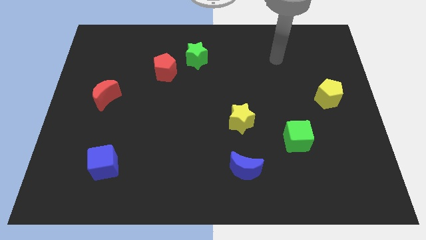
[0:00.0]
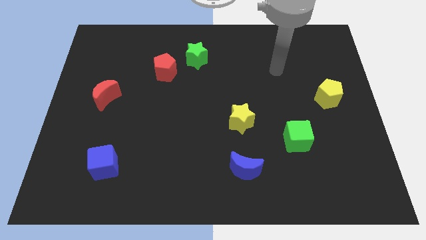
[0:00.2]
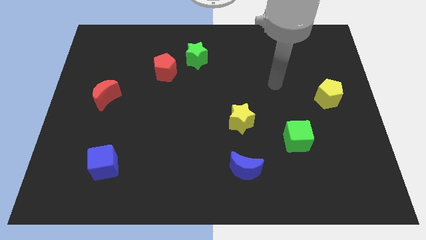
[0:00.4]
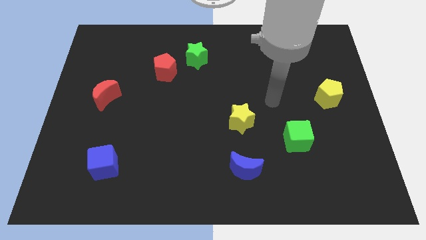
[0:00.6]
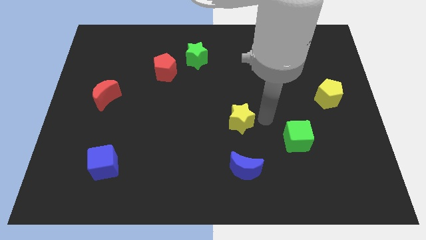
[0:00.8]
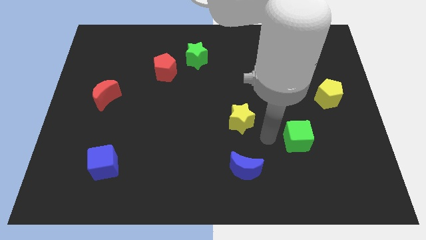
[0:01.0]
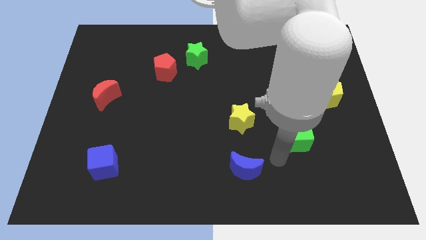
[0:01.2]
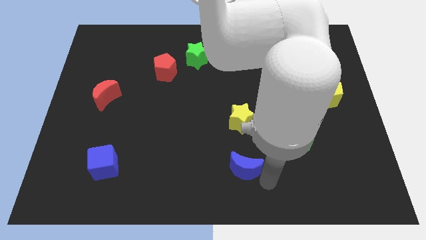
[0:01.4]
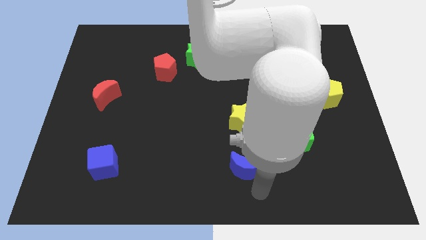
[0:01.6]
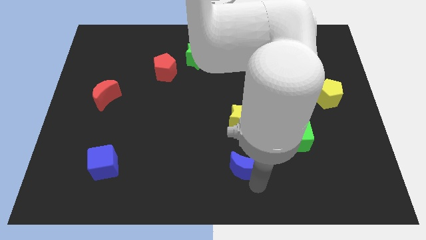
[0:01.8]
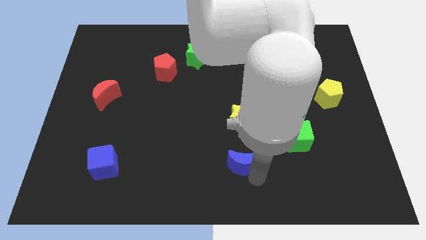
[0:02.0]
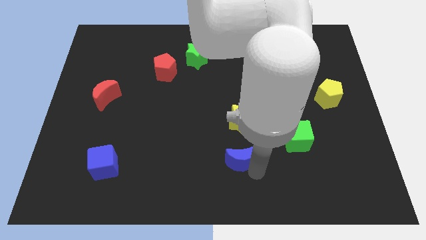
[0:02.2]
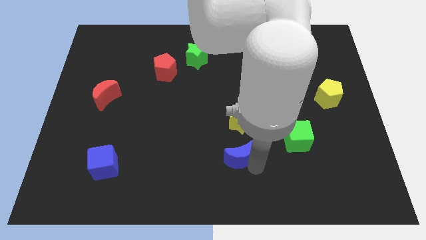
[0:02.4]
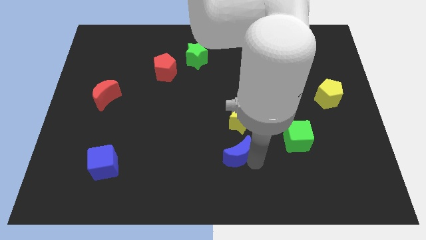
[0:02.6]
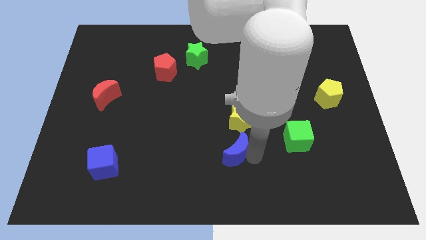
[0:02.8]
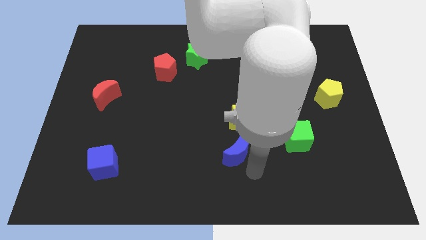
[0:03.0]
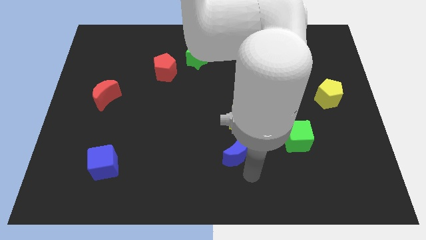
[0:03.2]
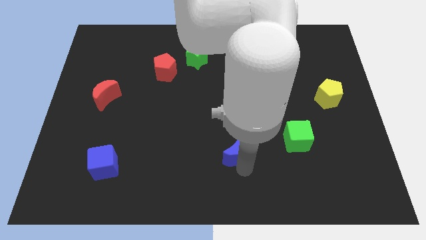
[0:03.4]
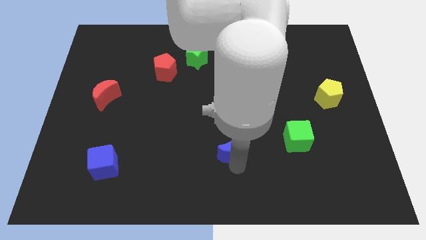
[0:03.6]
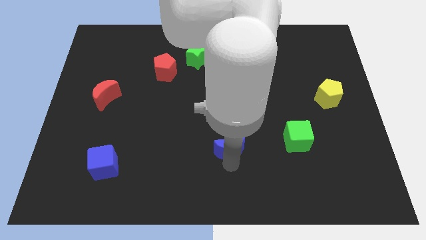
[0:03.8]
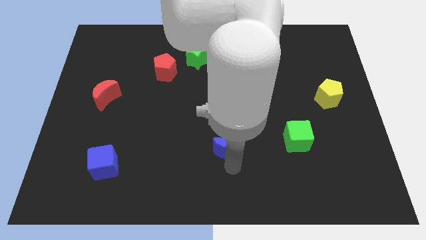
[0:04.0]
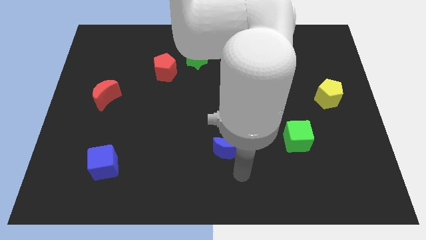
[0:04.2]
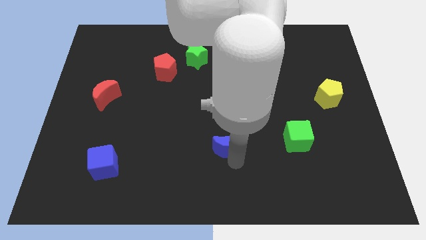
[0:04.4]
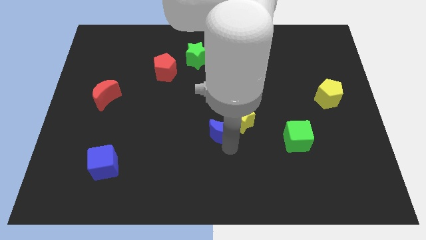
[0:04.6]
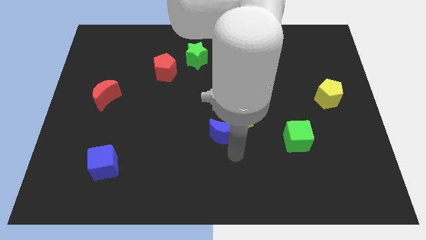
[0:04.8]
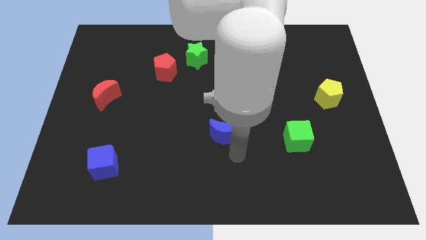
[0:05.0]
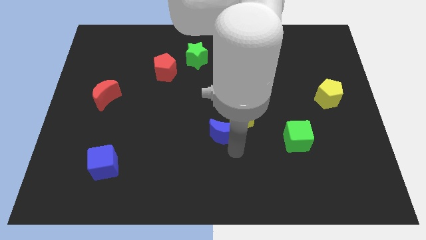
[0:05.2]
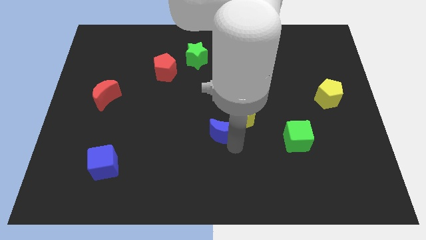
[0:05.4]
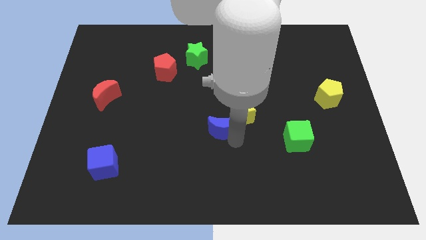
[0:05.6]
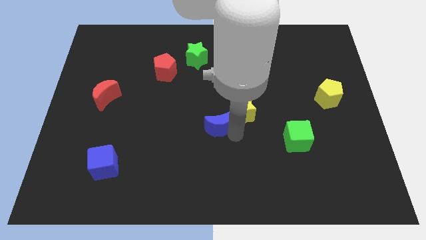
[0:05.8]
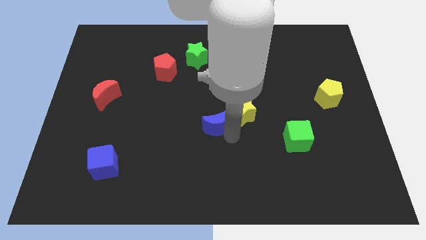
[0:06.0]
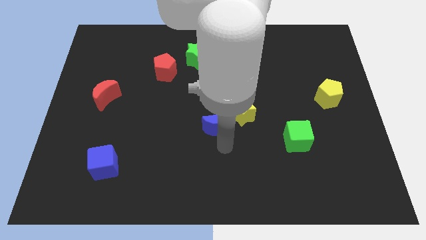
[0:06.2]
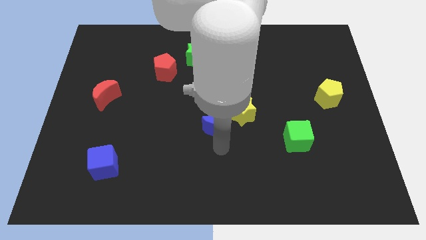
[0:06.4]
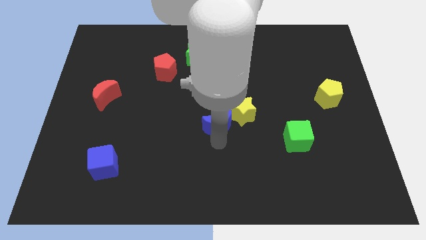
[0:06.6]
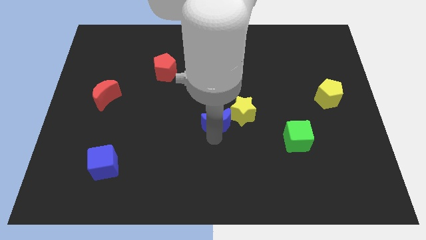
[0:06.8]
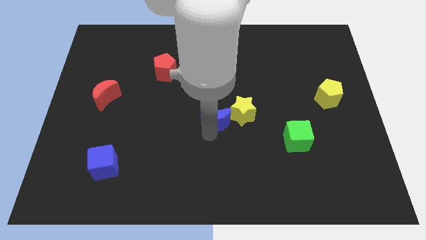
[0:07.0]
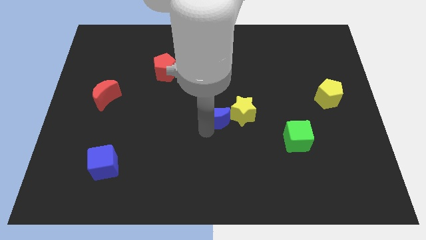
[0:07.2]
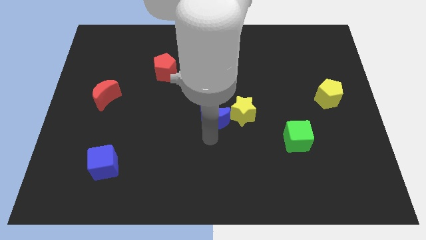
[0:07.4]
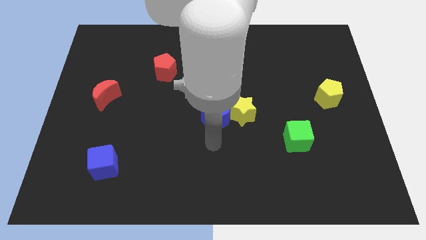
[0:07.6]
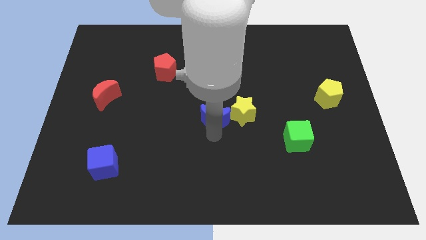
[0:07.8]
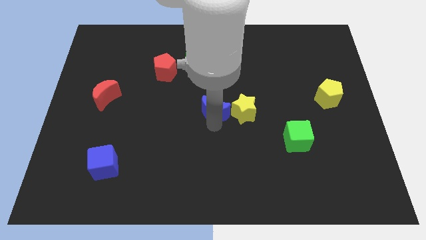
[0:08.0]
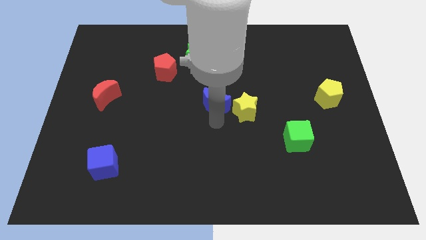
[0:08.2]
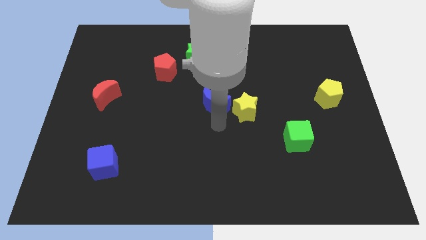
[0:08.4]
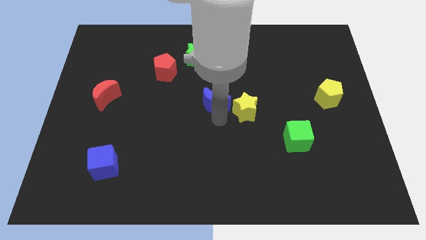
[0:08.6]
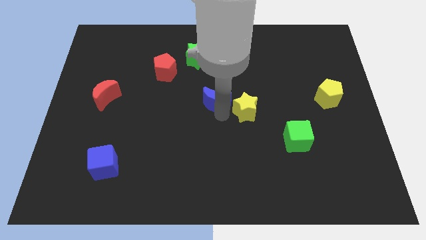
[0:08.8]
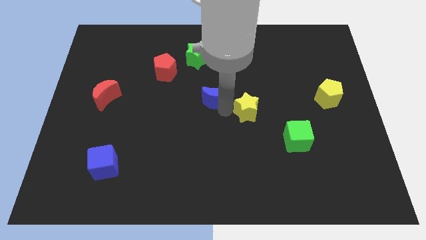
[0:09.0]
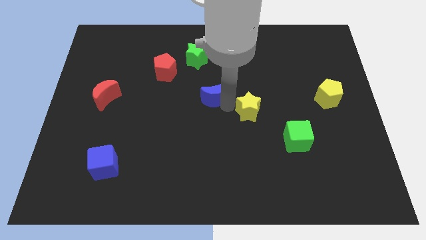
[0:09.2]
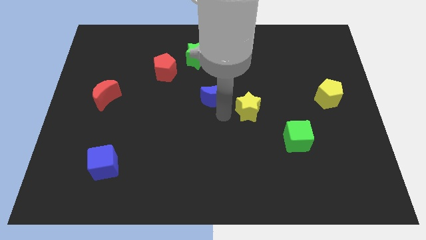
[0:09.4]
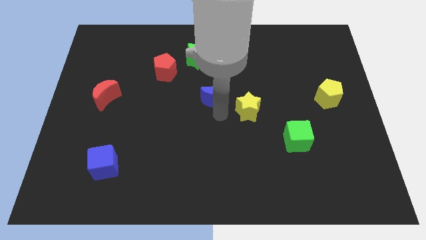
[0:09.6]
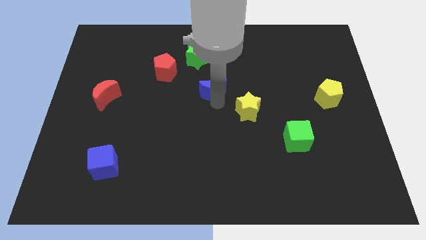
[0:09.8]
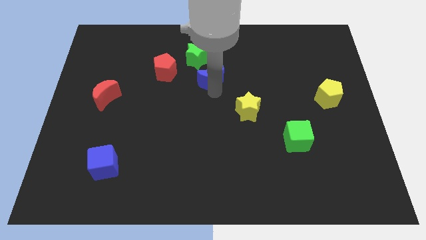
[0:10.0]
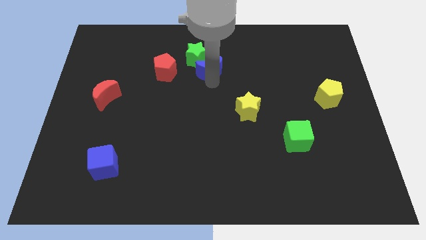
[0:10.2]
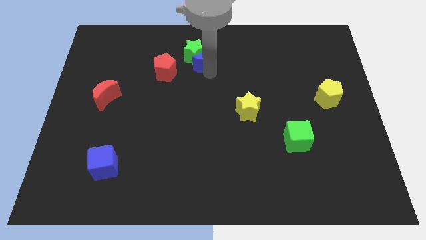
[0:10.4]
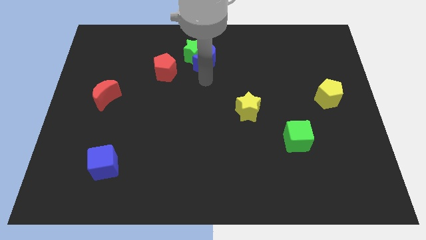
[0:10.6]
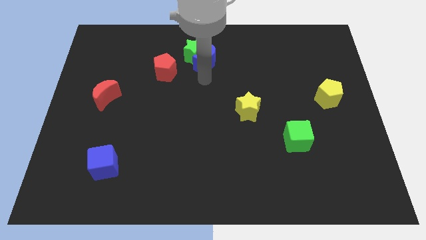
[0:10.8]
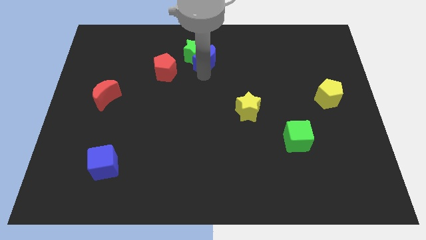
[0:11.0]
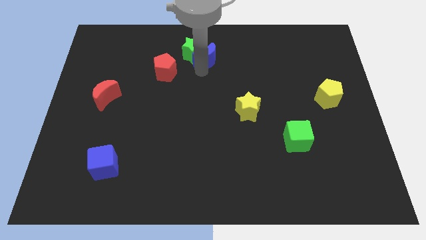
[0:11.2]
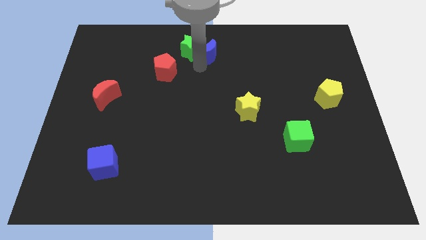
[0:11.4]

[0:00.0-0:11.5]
slide the blue moon to the top
